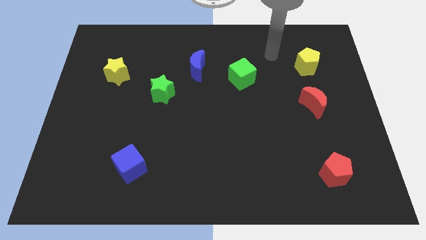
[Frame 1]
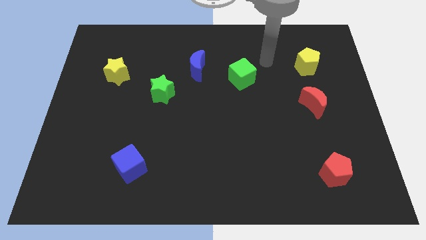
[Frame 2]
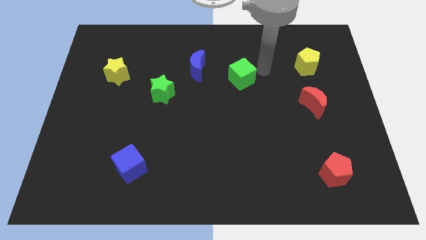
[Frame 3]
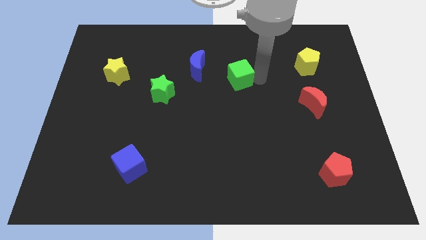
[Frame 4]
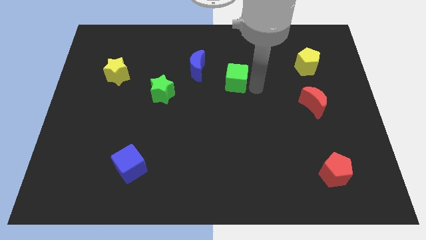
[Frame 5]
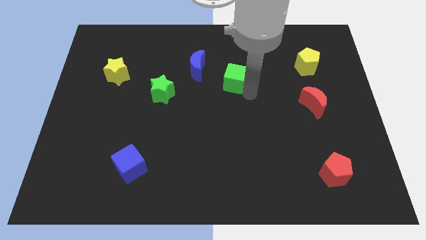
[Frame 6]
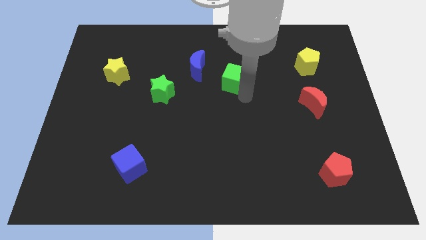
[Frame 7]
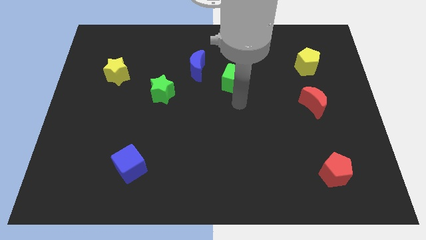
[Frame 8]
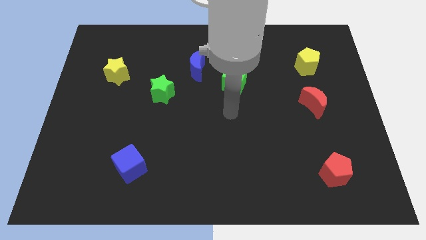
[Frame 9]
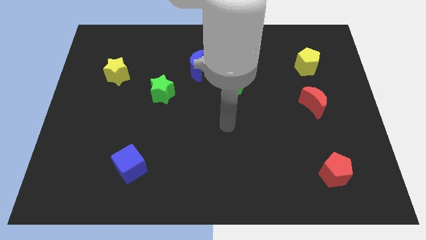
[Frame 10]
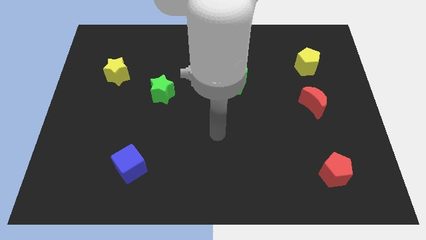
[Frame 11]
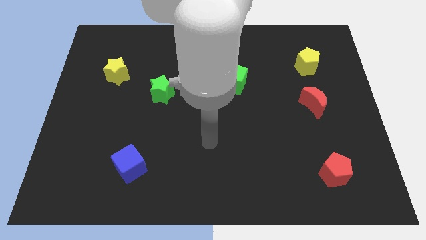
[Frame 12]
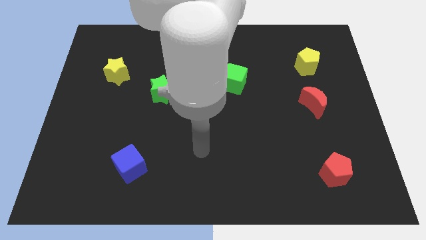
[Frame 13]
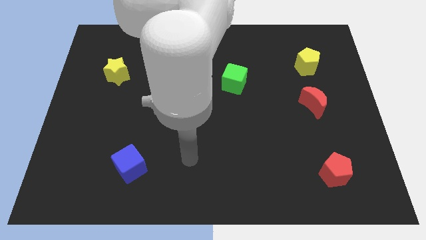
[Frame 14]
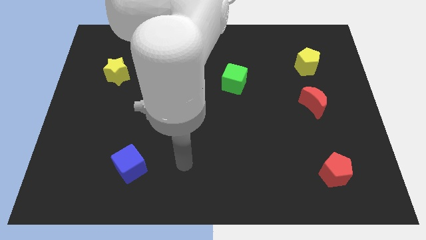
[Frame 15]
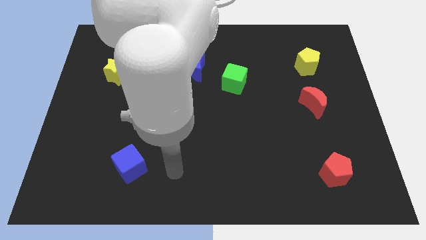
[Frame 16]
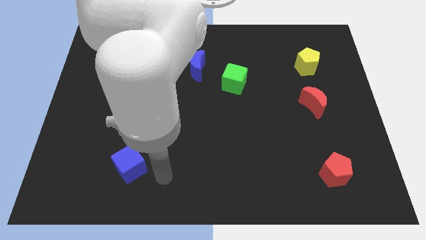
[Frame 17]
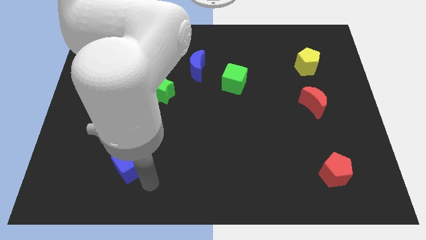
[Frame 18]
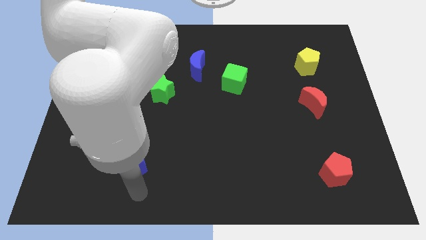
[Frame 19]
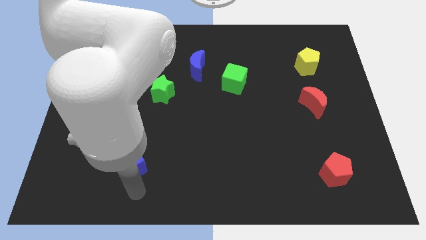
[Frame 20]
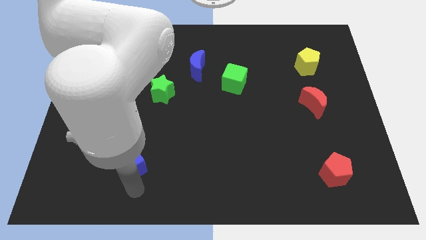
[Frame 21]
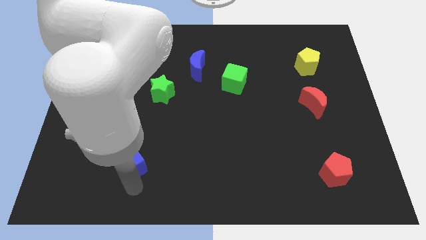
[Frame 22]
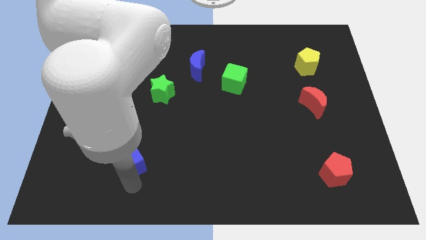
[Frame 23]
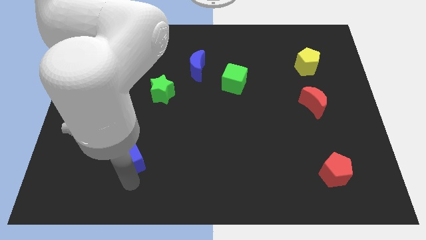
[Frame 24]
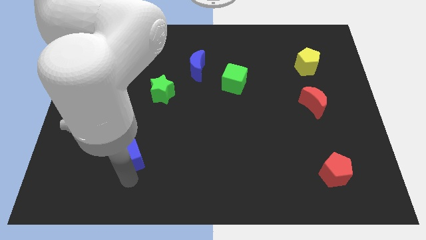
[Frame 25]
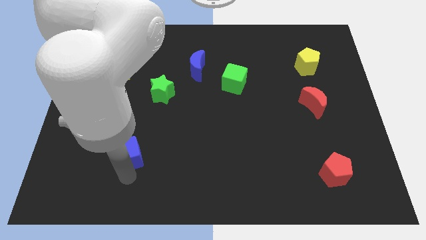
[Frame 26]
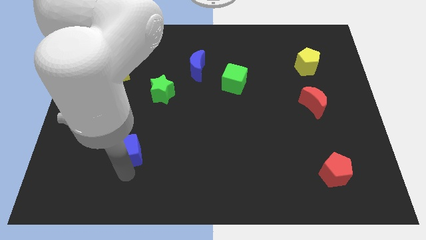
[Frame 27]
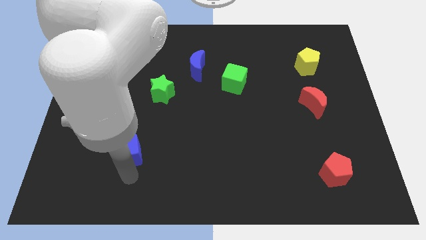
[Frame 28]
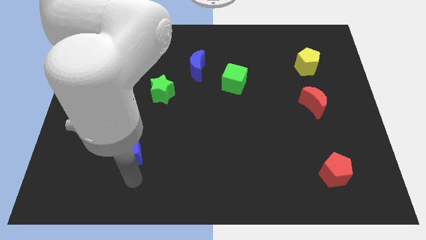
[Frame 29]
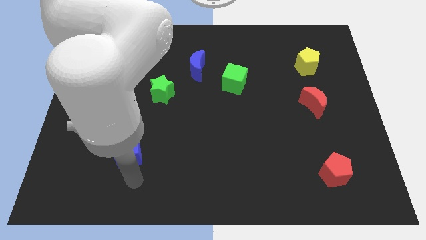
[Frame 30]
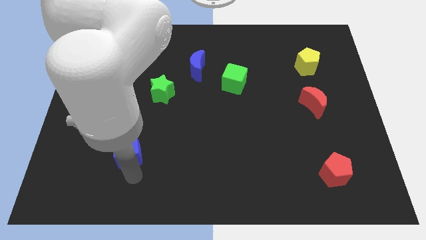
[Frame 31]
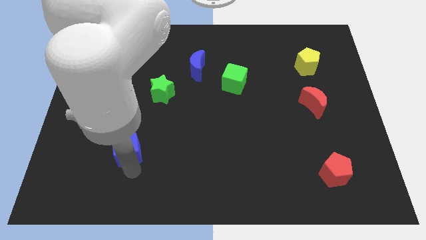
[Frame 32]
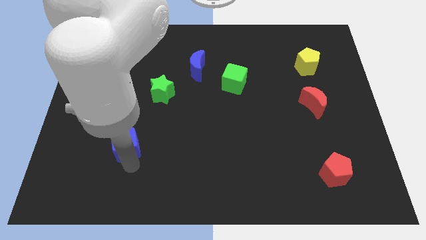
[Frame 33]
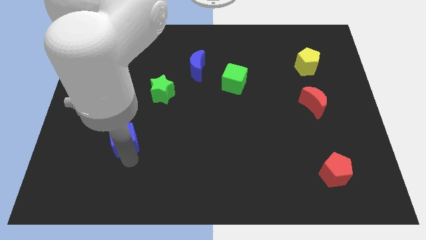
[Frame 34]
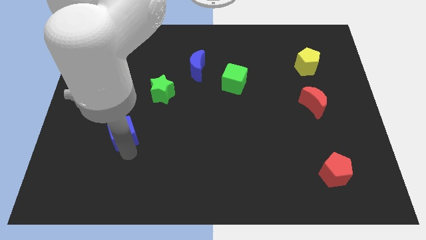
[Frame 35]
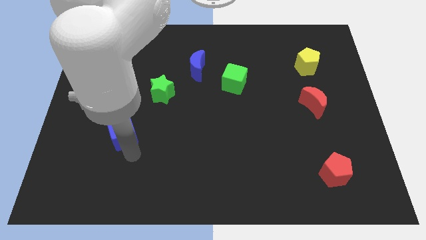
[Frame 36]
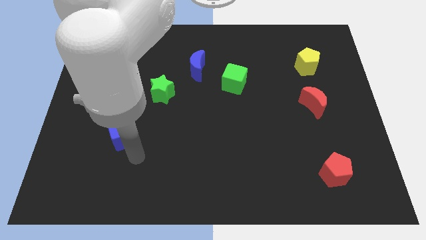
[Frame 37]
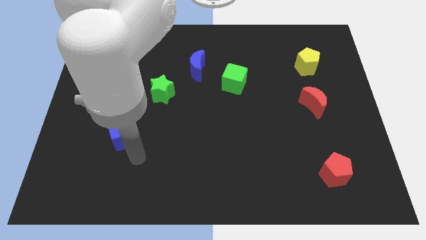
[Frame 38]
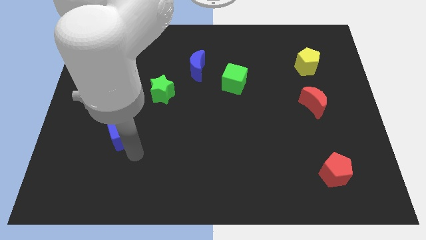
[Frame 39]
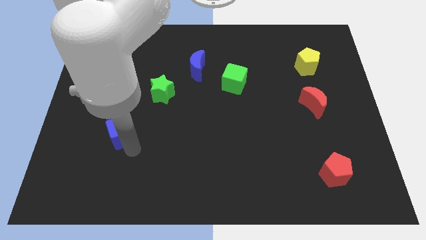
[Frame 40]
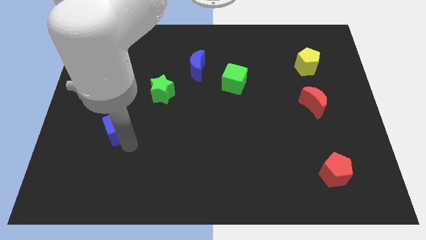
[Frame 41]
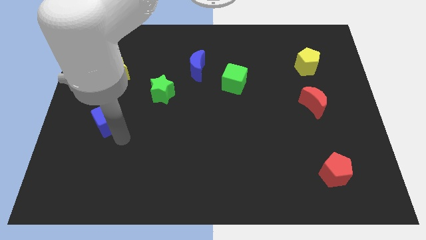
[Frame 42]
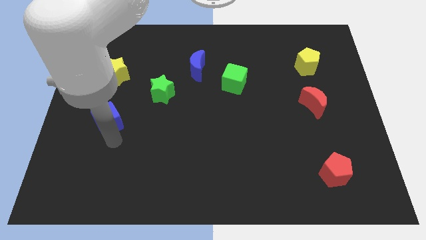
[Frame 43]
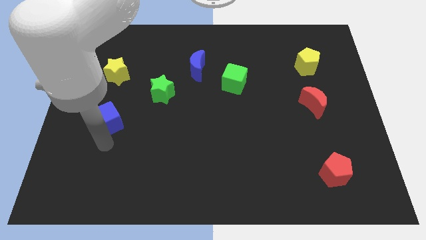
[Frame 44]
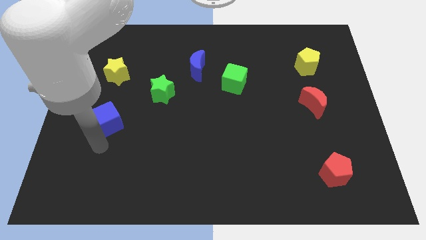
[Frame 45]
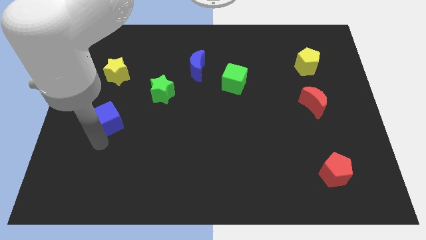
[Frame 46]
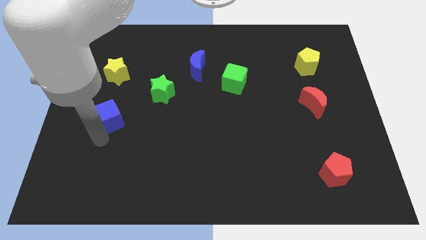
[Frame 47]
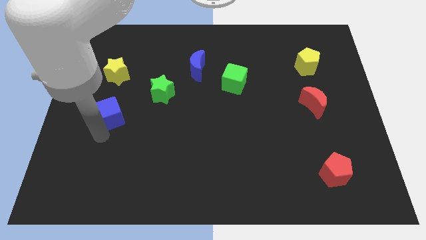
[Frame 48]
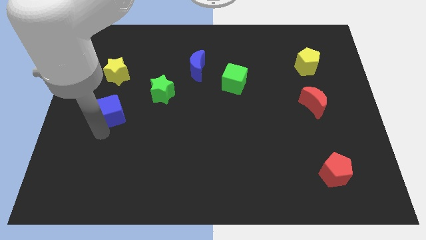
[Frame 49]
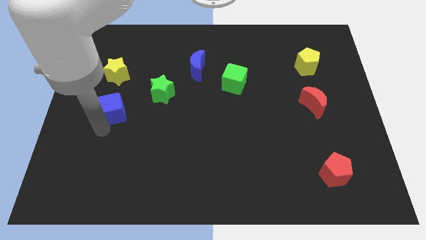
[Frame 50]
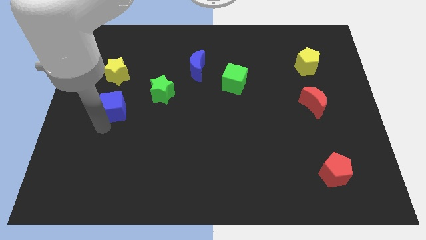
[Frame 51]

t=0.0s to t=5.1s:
slide the blue cube to the left side of the green star

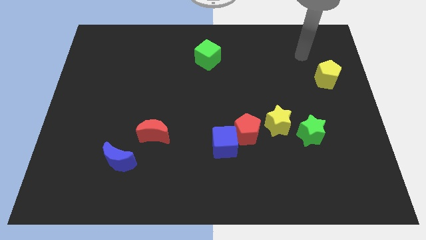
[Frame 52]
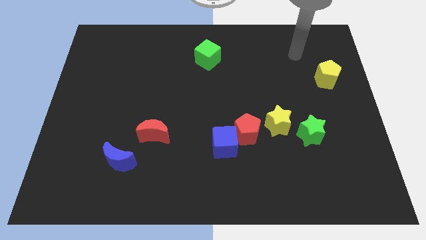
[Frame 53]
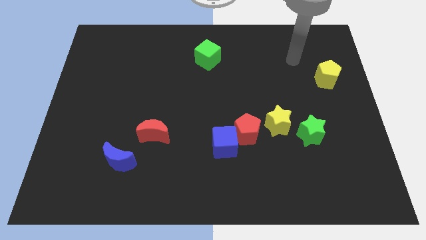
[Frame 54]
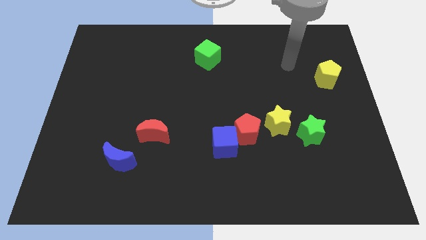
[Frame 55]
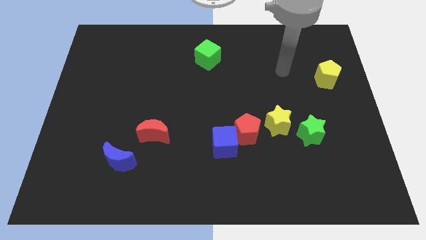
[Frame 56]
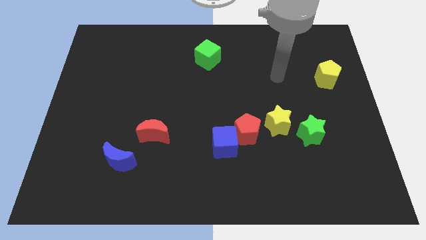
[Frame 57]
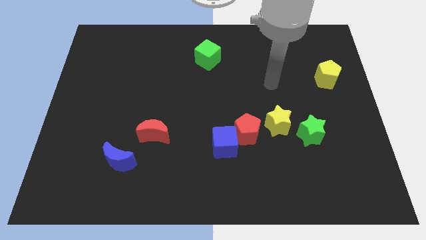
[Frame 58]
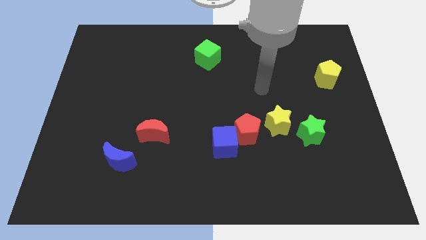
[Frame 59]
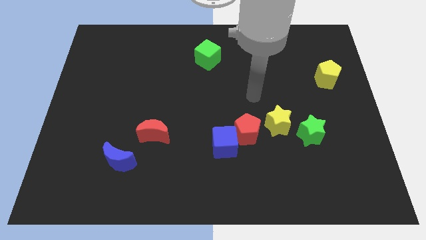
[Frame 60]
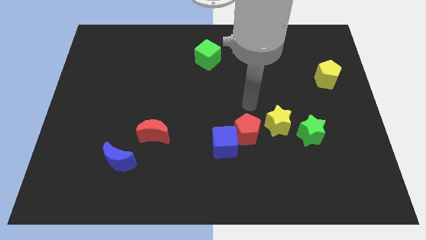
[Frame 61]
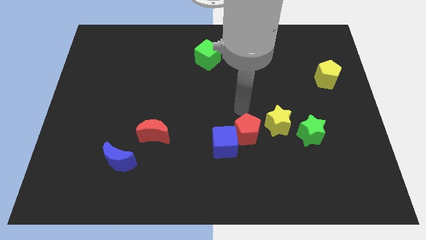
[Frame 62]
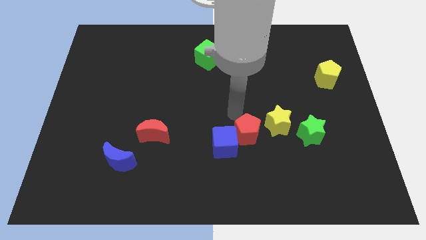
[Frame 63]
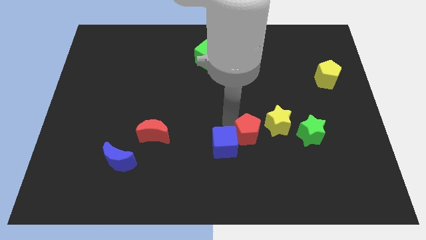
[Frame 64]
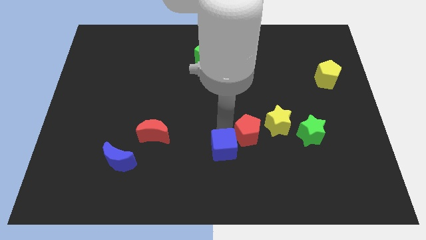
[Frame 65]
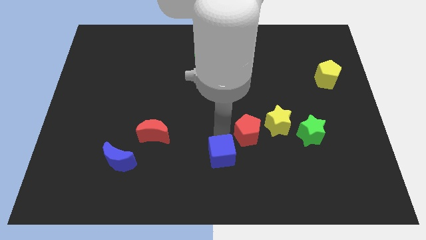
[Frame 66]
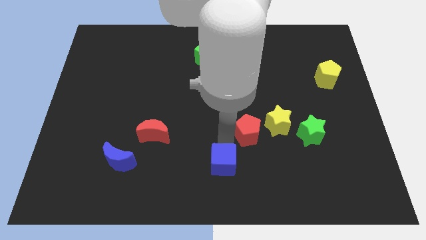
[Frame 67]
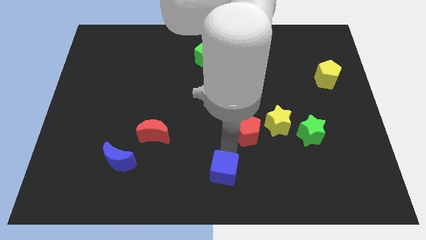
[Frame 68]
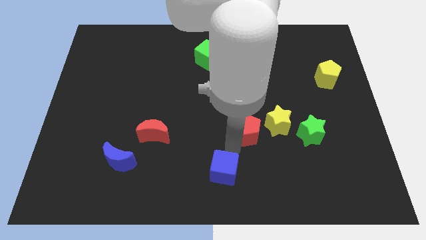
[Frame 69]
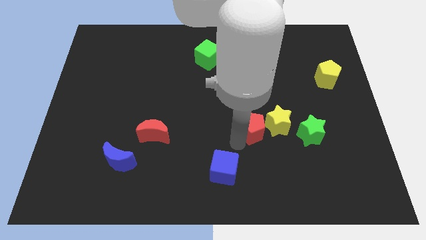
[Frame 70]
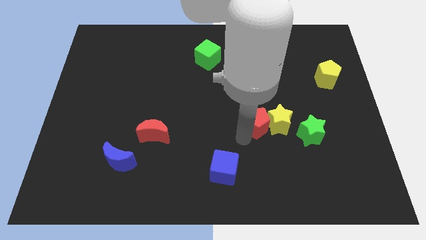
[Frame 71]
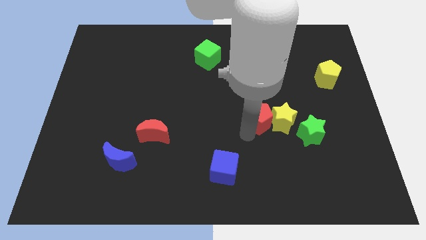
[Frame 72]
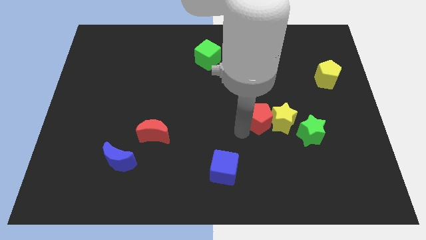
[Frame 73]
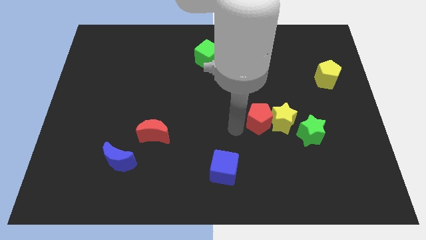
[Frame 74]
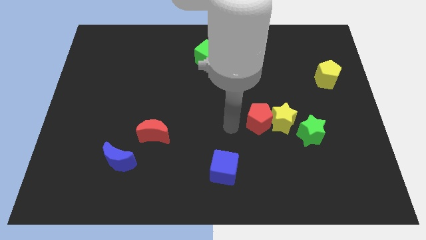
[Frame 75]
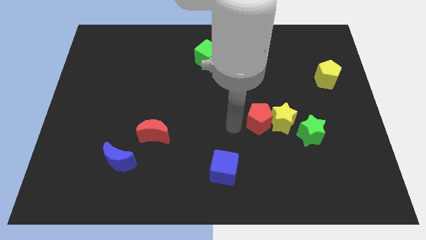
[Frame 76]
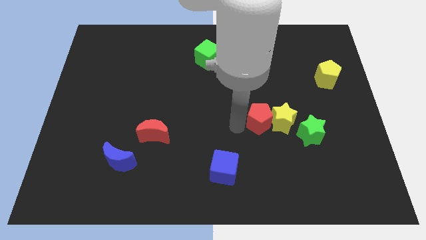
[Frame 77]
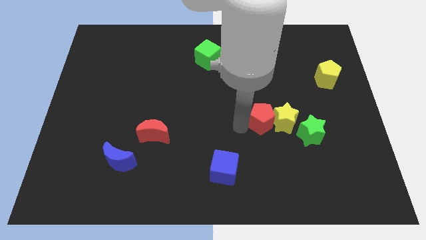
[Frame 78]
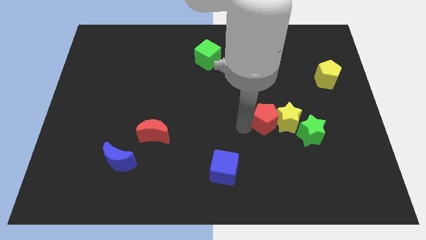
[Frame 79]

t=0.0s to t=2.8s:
push the red pentagon to the top left side of the green star
